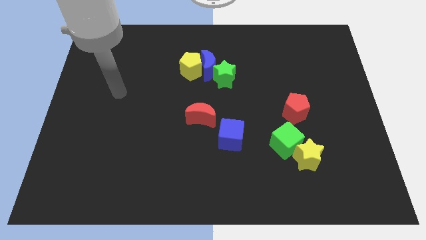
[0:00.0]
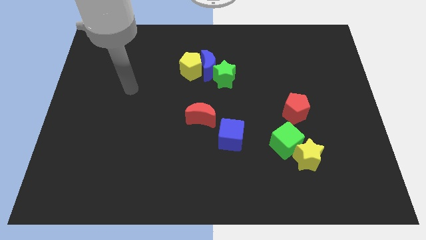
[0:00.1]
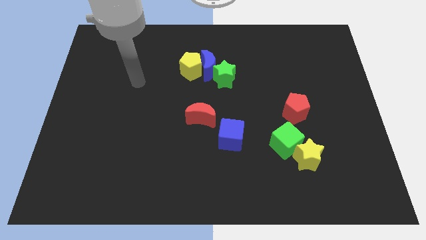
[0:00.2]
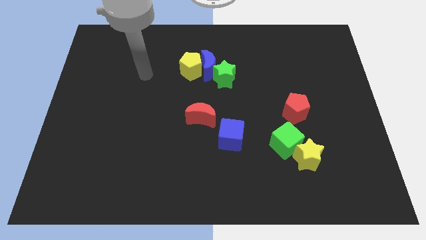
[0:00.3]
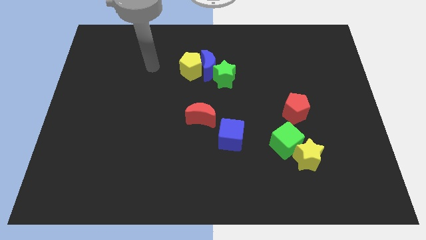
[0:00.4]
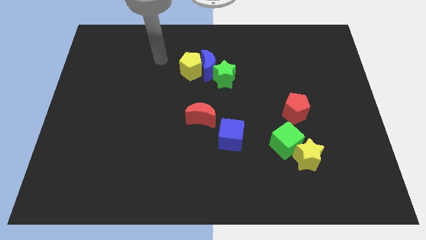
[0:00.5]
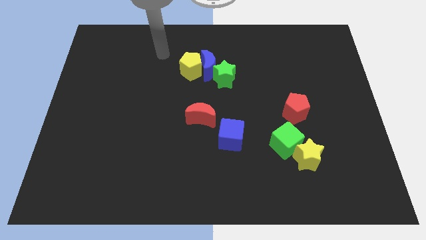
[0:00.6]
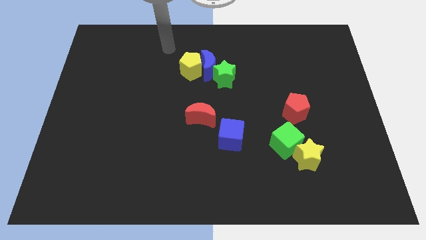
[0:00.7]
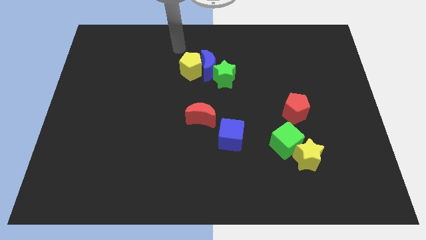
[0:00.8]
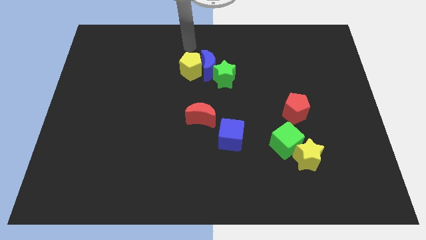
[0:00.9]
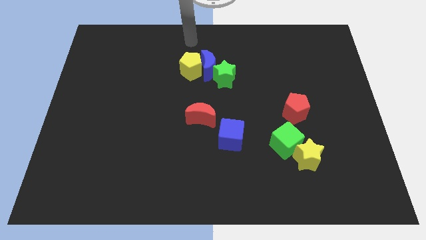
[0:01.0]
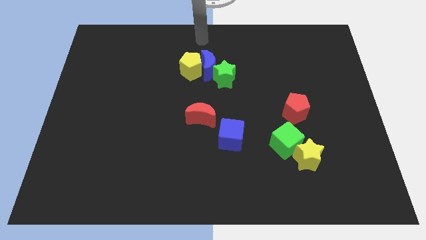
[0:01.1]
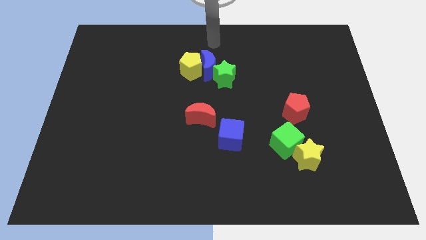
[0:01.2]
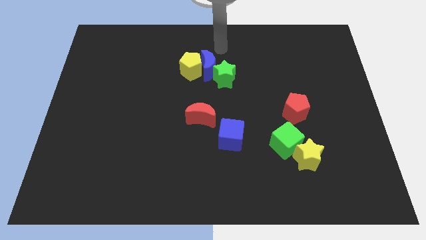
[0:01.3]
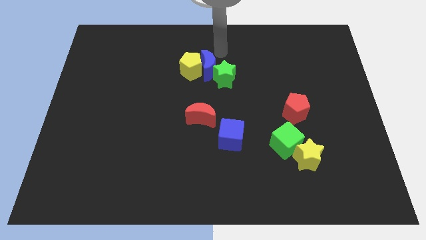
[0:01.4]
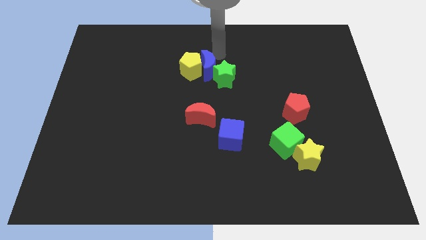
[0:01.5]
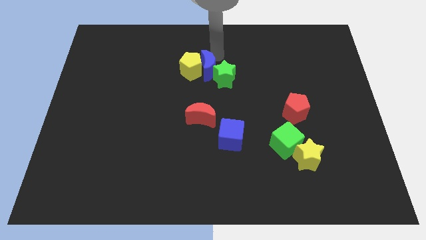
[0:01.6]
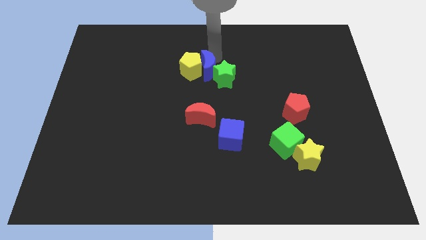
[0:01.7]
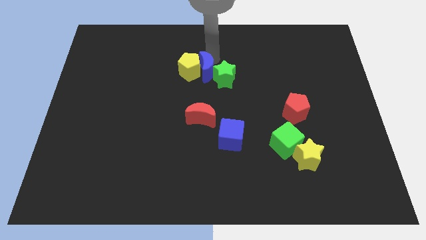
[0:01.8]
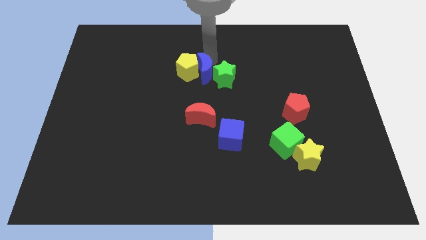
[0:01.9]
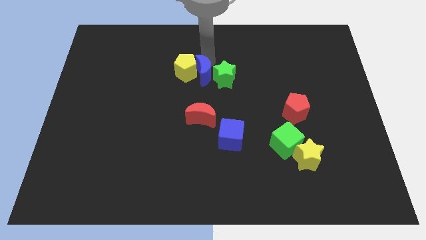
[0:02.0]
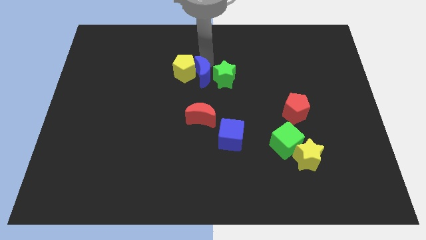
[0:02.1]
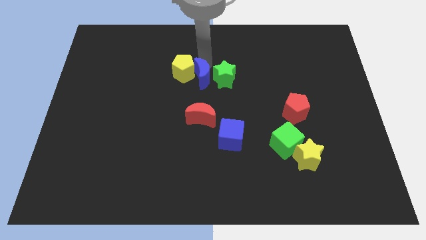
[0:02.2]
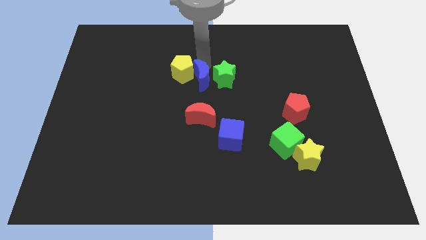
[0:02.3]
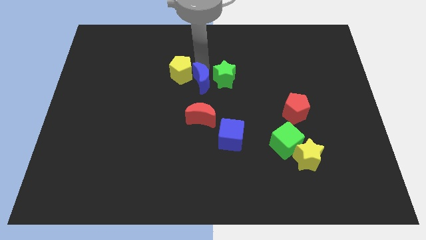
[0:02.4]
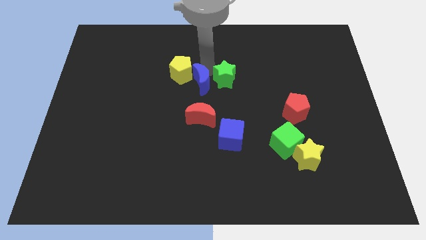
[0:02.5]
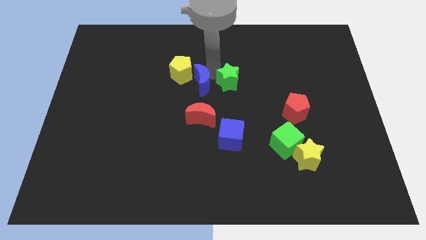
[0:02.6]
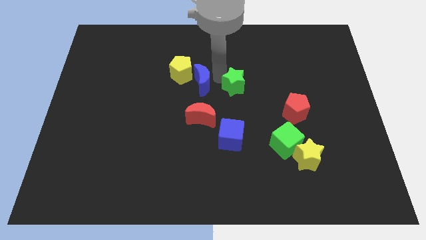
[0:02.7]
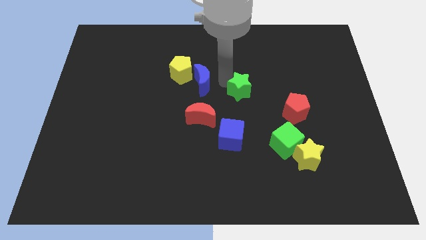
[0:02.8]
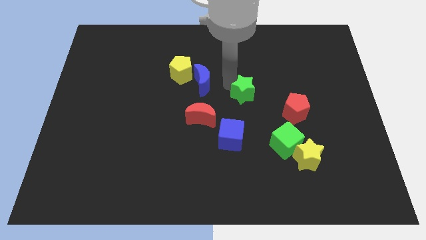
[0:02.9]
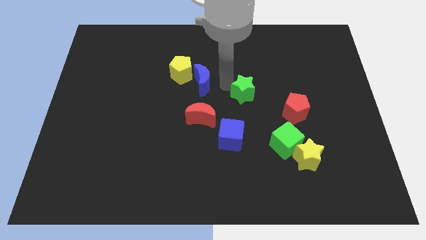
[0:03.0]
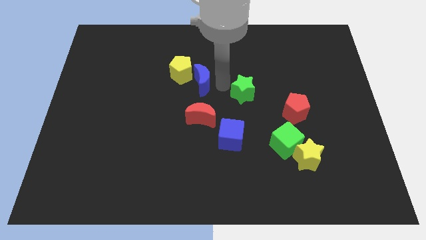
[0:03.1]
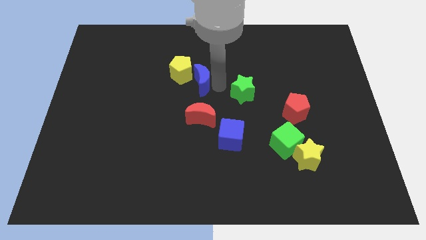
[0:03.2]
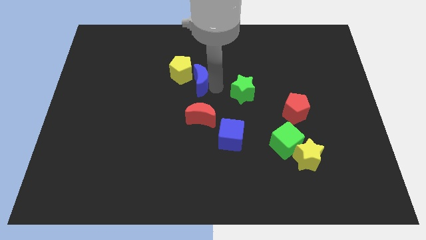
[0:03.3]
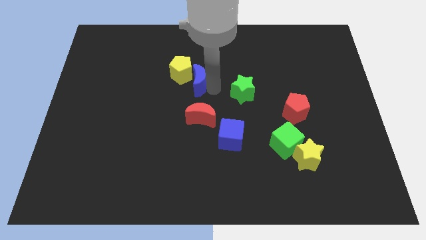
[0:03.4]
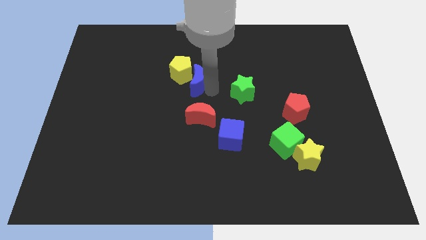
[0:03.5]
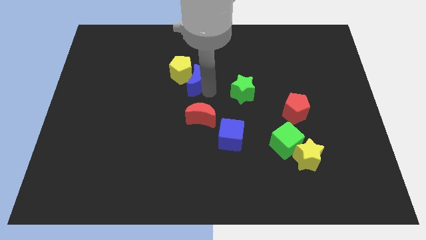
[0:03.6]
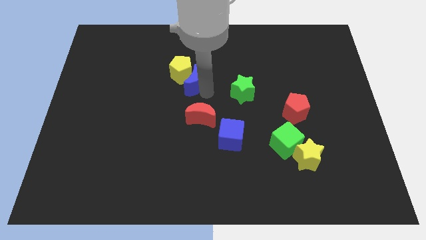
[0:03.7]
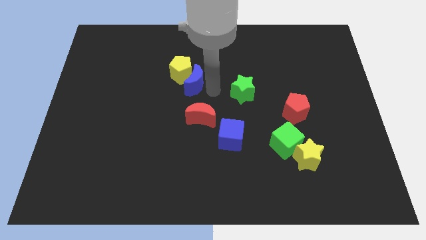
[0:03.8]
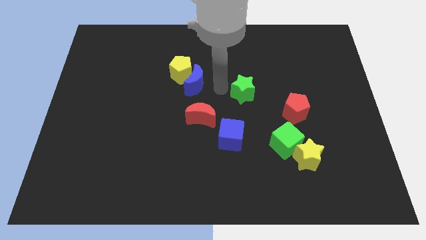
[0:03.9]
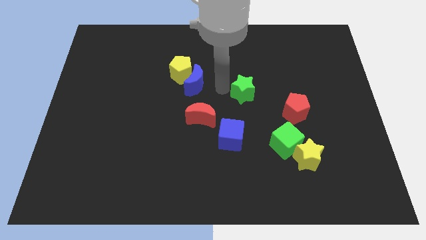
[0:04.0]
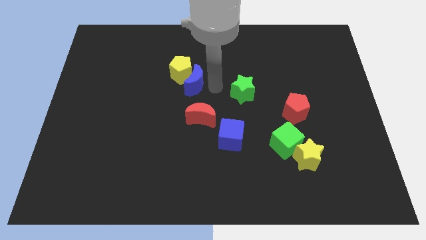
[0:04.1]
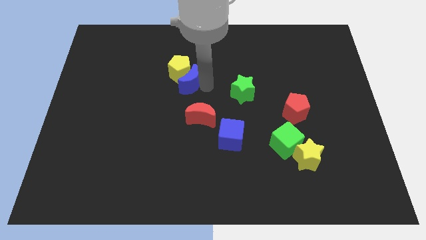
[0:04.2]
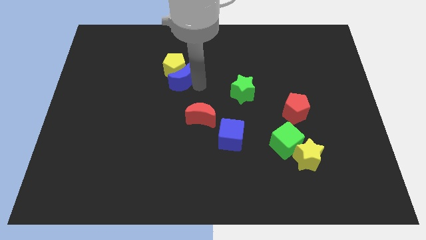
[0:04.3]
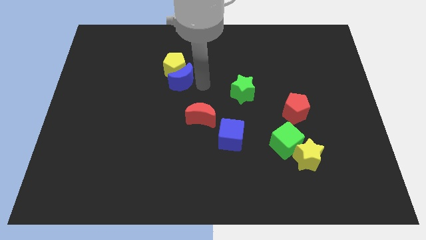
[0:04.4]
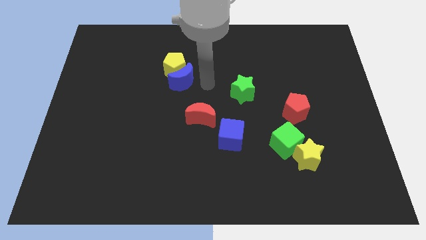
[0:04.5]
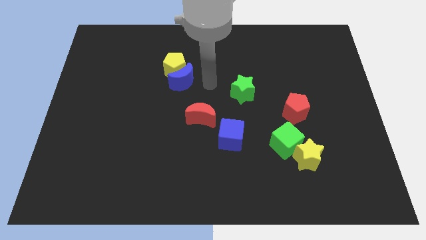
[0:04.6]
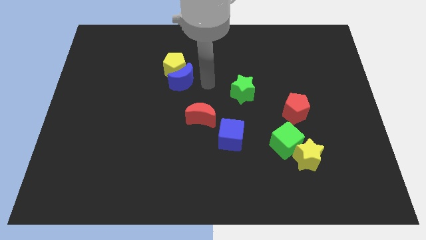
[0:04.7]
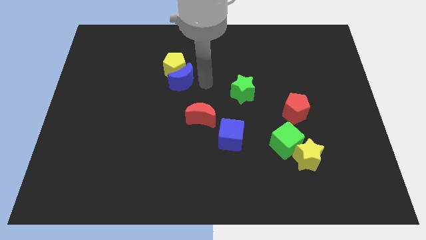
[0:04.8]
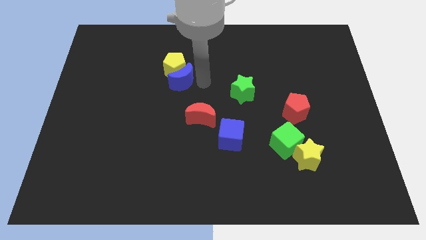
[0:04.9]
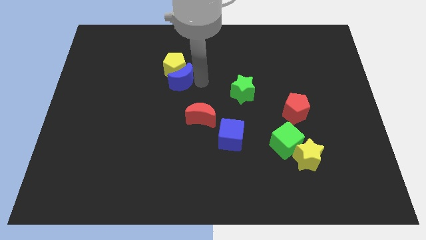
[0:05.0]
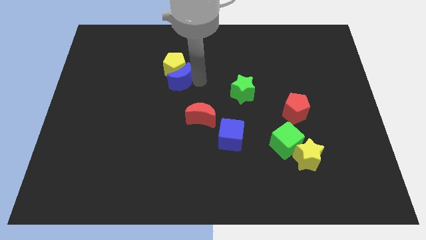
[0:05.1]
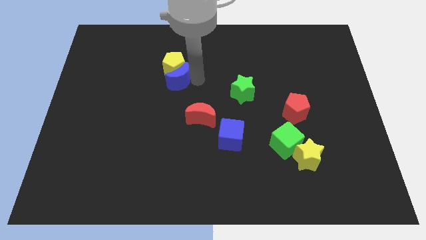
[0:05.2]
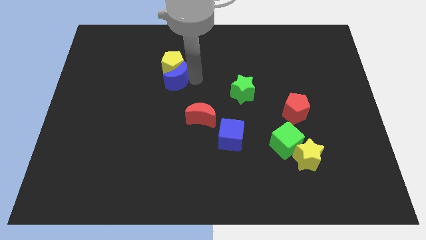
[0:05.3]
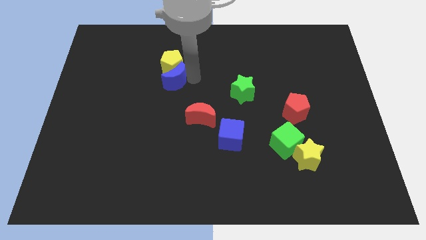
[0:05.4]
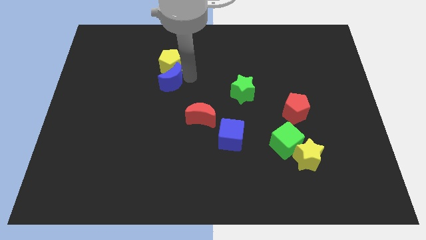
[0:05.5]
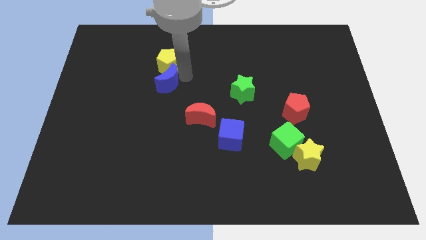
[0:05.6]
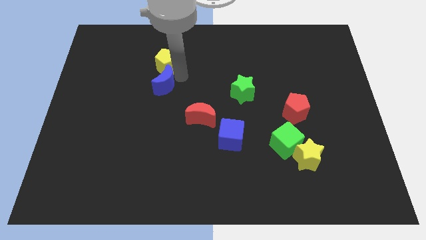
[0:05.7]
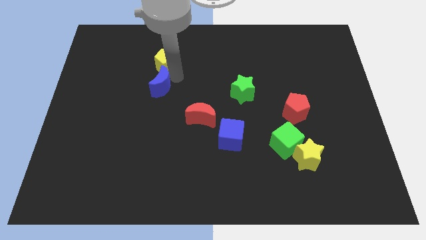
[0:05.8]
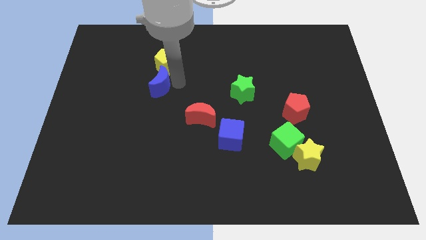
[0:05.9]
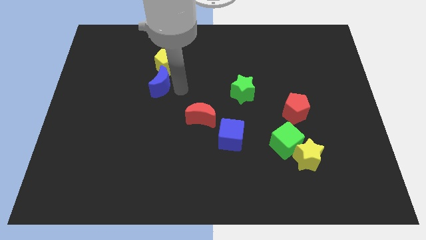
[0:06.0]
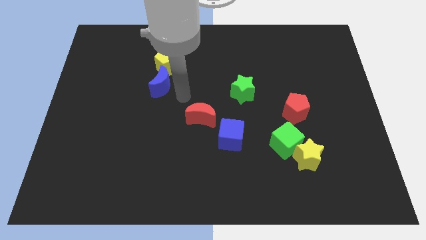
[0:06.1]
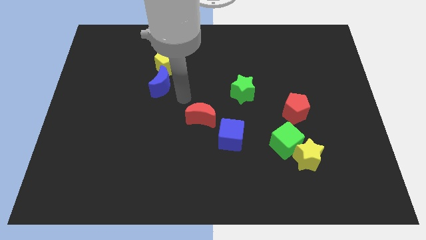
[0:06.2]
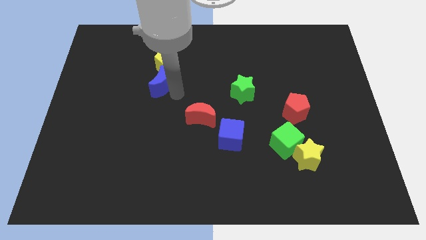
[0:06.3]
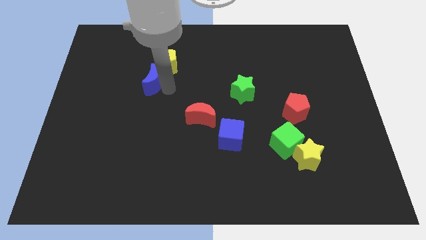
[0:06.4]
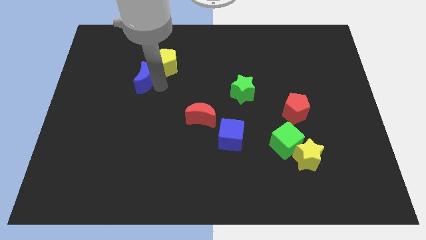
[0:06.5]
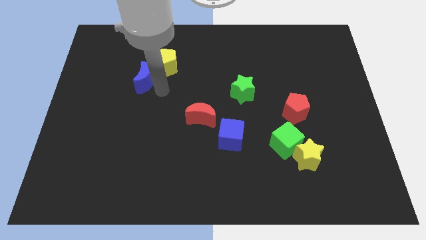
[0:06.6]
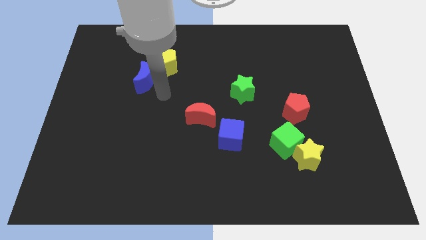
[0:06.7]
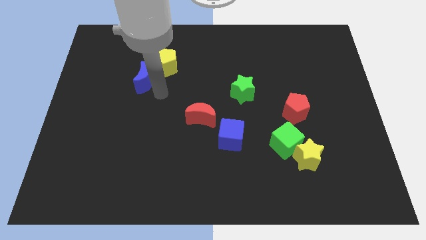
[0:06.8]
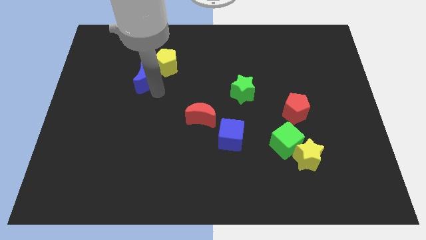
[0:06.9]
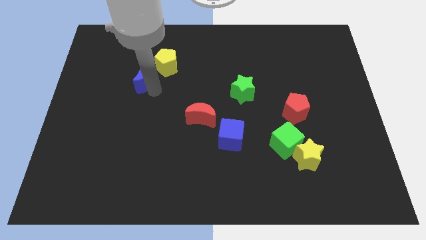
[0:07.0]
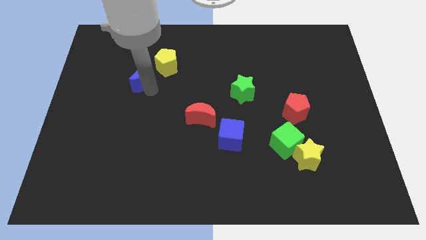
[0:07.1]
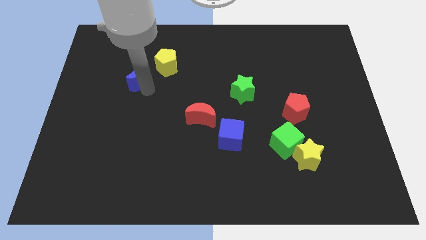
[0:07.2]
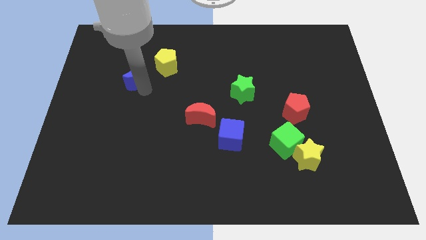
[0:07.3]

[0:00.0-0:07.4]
push the blue moon left of the yellow pentagon
